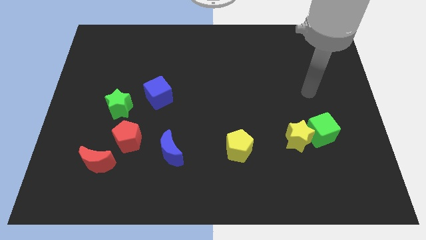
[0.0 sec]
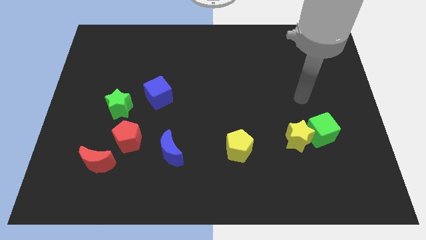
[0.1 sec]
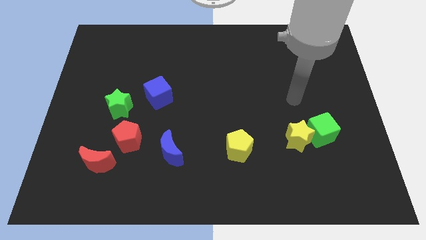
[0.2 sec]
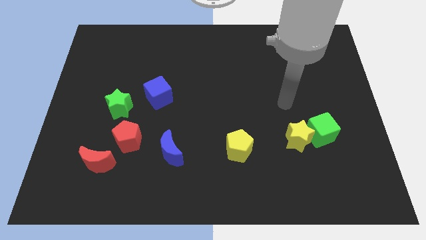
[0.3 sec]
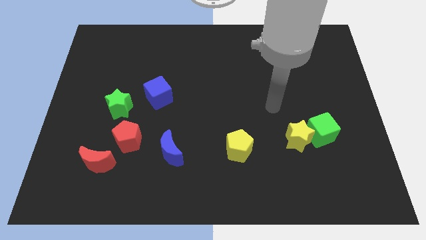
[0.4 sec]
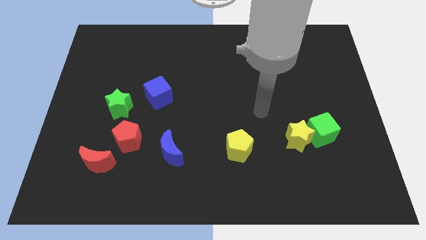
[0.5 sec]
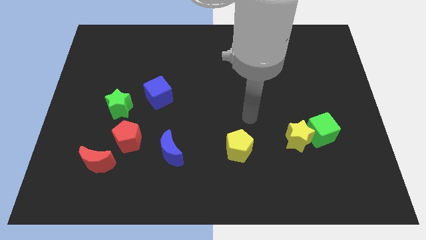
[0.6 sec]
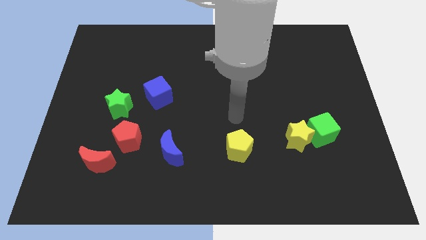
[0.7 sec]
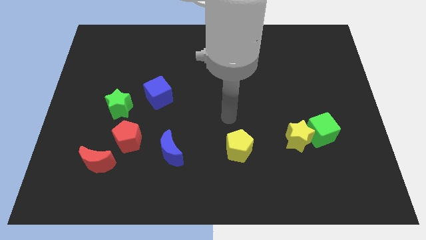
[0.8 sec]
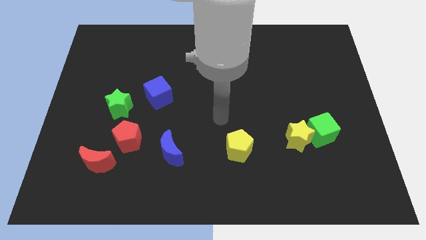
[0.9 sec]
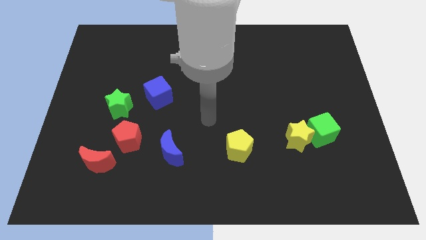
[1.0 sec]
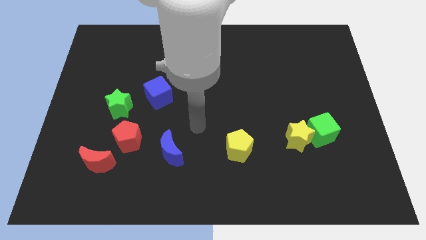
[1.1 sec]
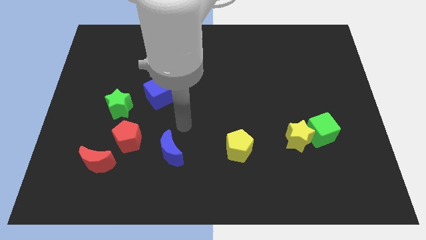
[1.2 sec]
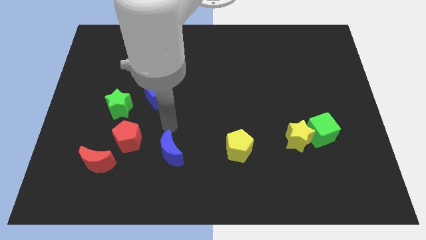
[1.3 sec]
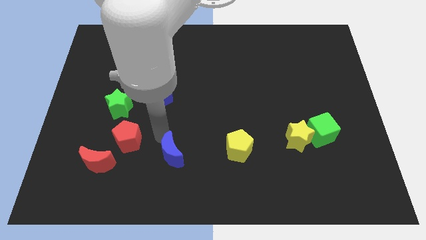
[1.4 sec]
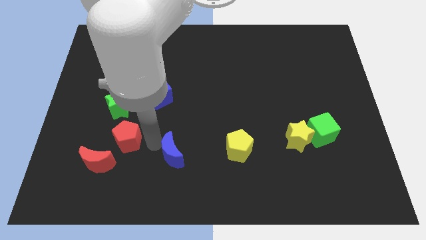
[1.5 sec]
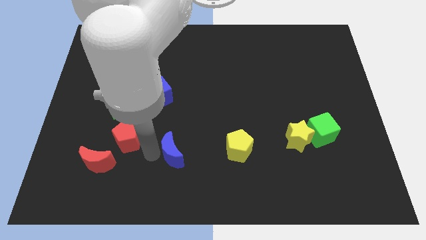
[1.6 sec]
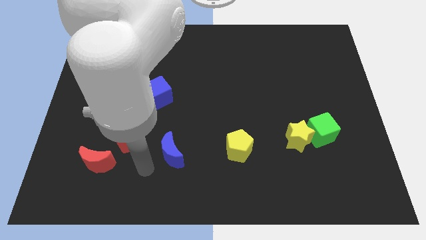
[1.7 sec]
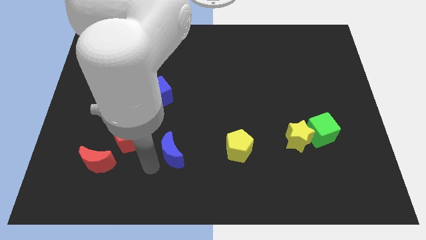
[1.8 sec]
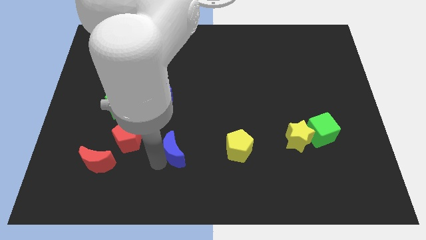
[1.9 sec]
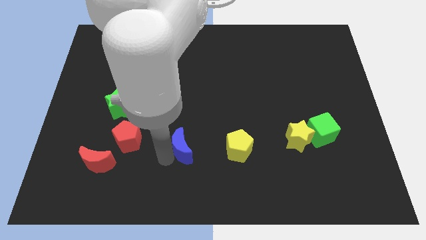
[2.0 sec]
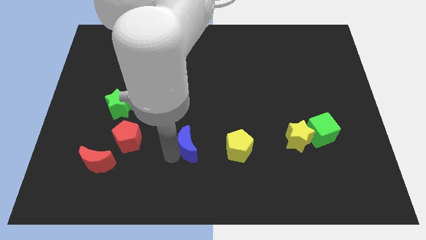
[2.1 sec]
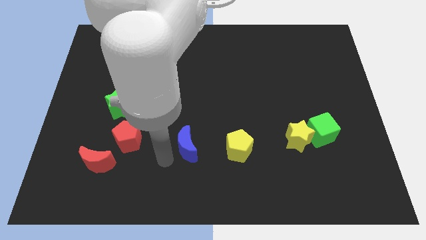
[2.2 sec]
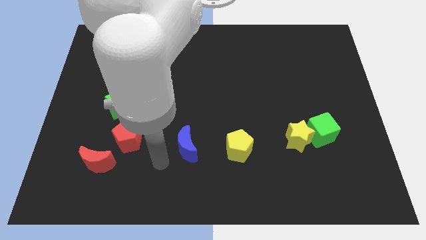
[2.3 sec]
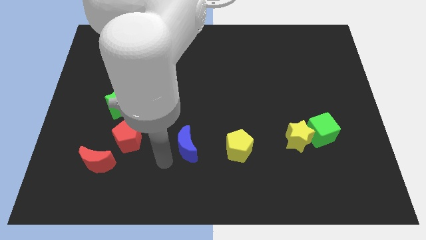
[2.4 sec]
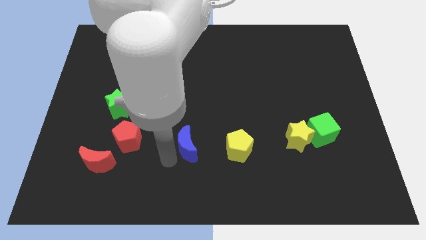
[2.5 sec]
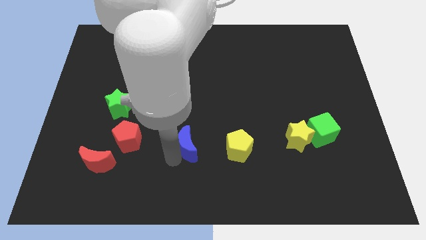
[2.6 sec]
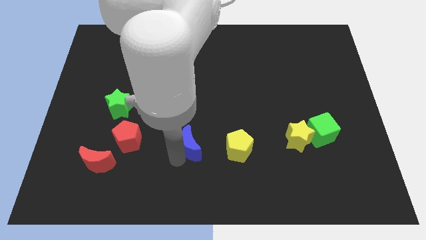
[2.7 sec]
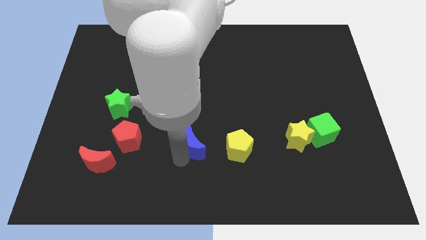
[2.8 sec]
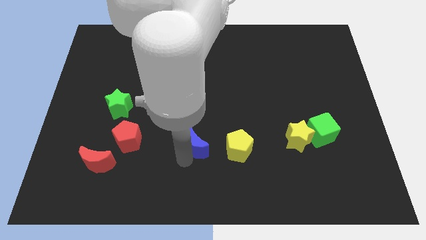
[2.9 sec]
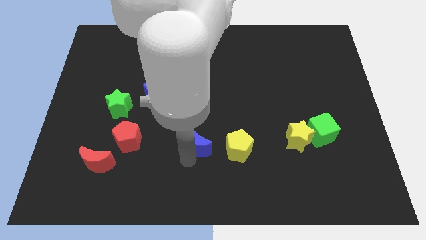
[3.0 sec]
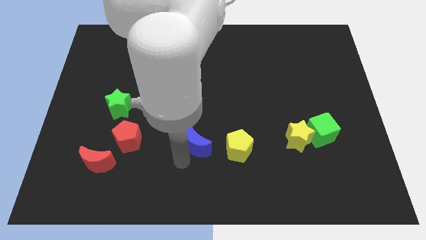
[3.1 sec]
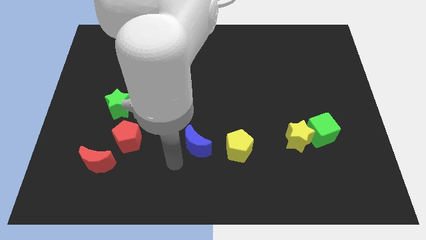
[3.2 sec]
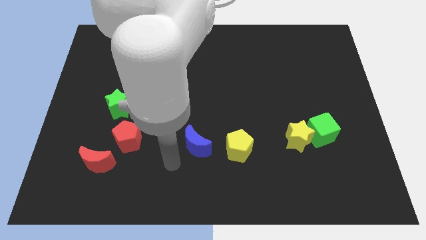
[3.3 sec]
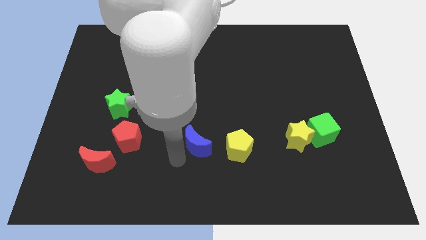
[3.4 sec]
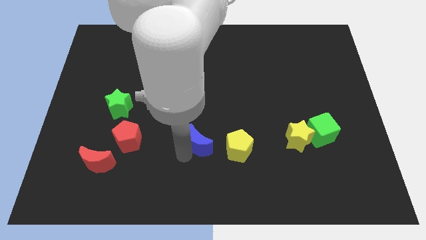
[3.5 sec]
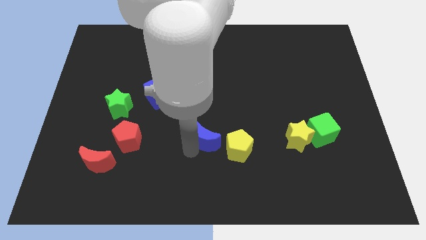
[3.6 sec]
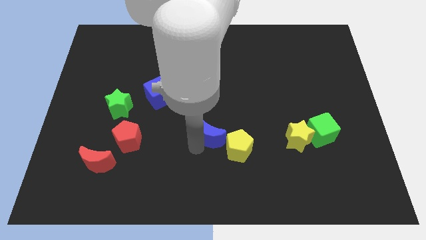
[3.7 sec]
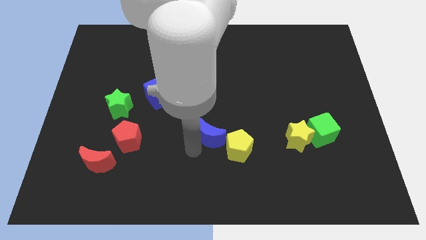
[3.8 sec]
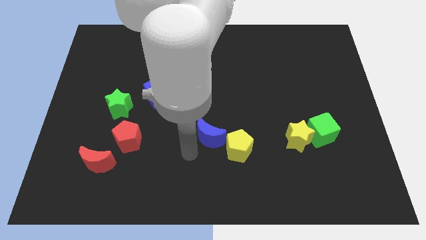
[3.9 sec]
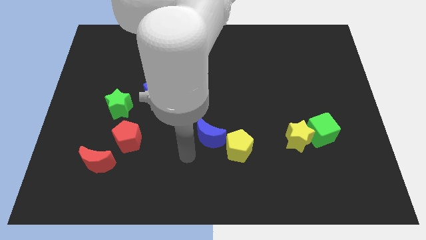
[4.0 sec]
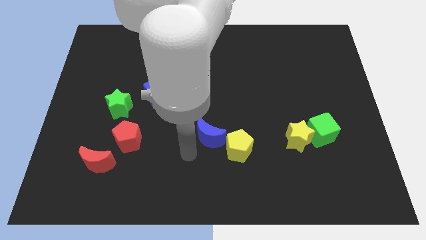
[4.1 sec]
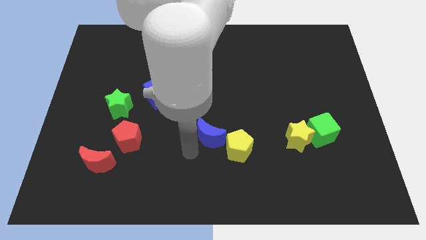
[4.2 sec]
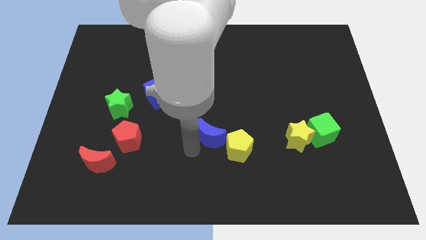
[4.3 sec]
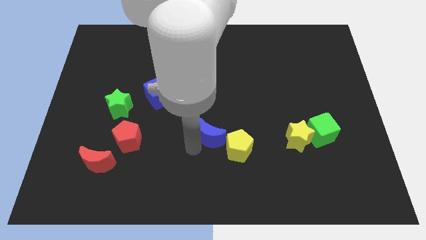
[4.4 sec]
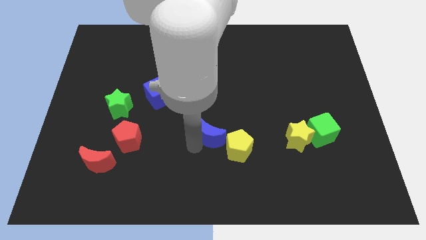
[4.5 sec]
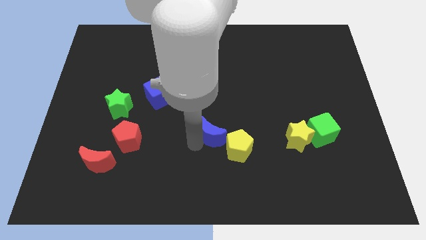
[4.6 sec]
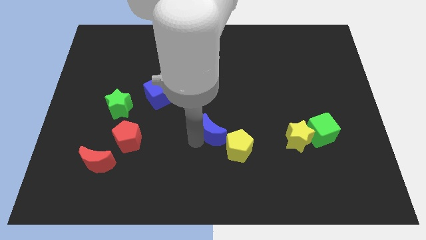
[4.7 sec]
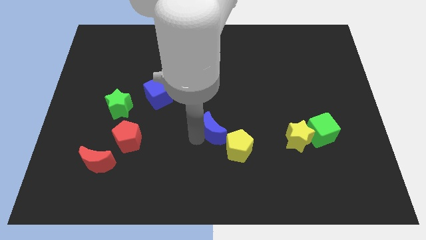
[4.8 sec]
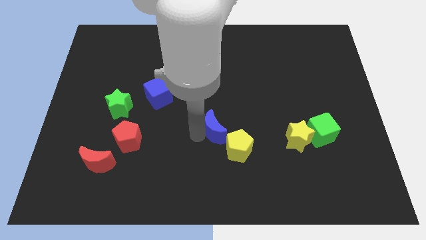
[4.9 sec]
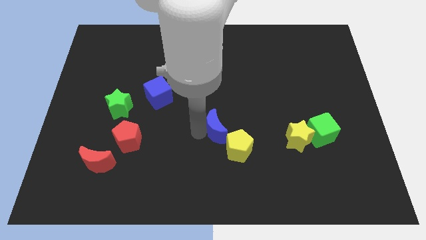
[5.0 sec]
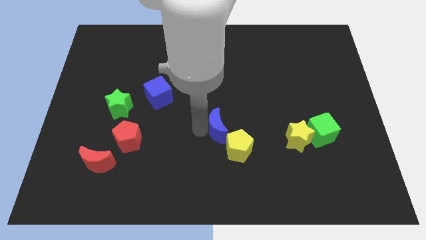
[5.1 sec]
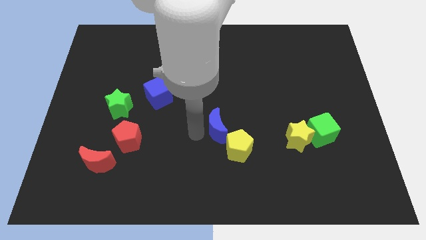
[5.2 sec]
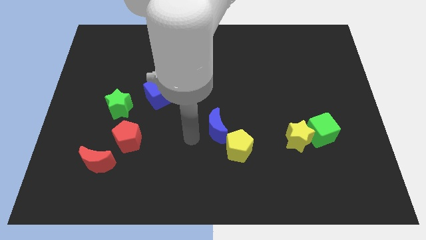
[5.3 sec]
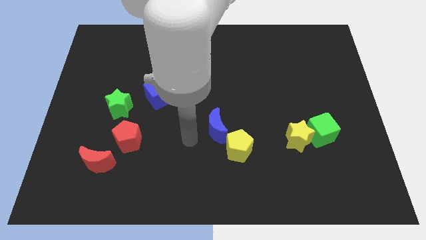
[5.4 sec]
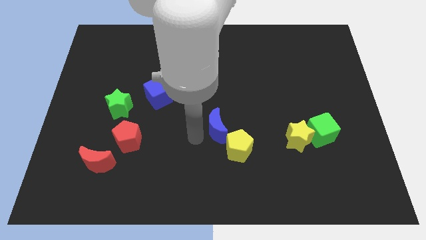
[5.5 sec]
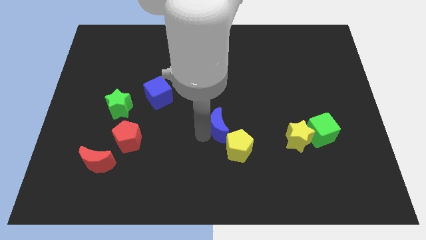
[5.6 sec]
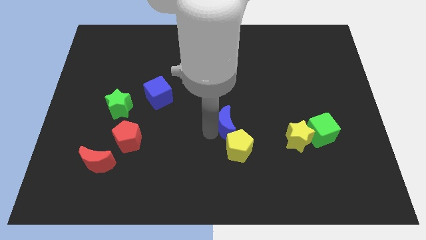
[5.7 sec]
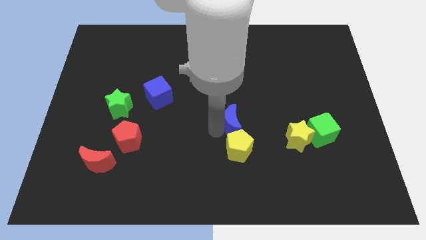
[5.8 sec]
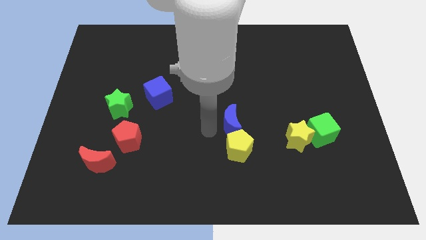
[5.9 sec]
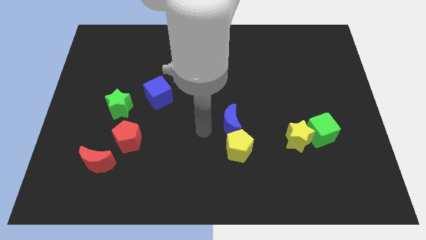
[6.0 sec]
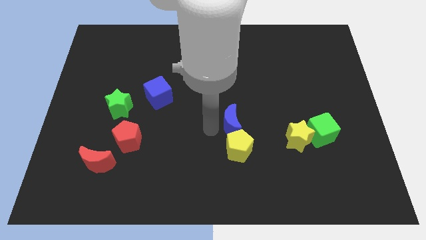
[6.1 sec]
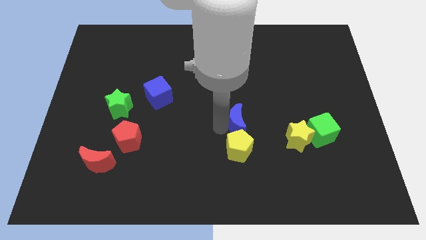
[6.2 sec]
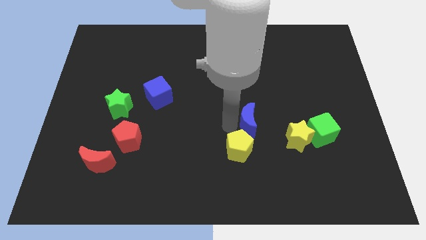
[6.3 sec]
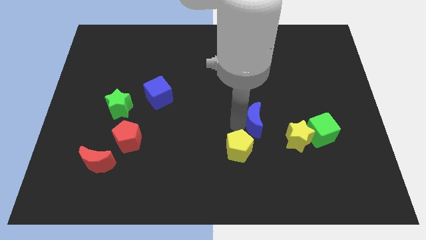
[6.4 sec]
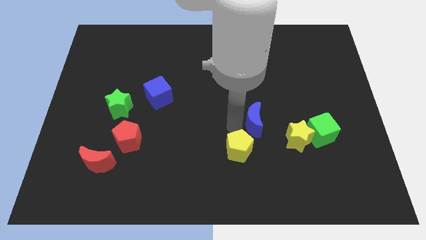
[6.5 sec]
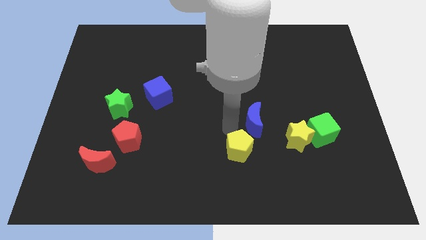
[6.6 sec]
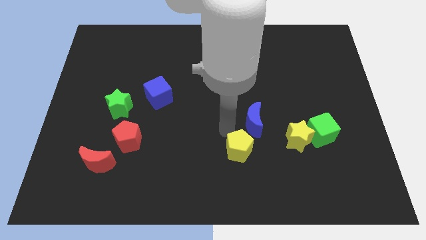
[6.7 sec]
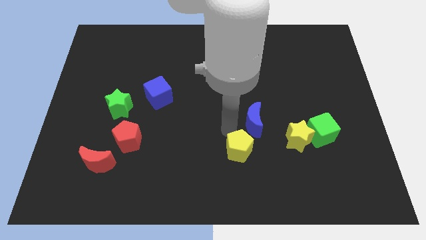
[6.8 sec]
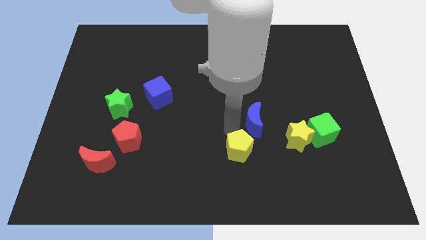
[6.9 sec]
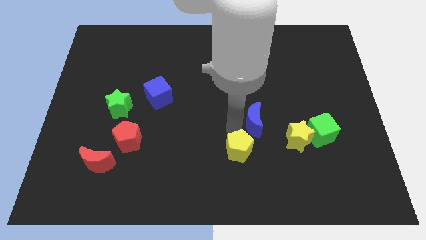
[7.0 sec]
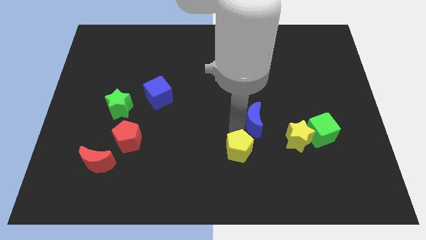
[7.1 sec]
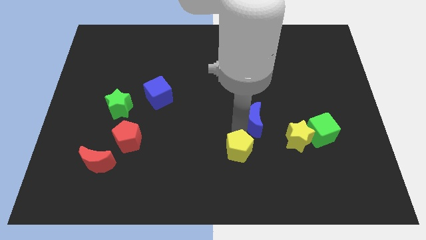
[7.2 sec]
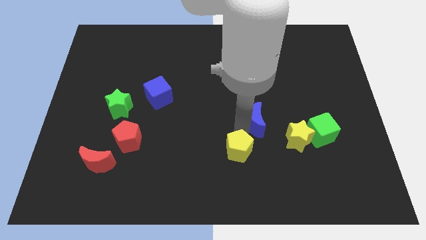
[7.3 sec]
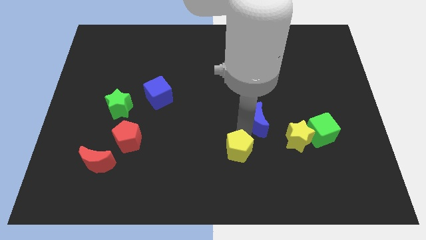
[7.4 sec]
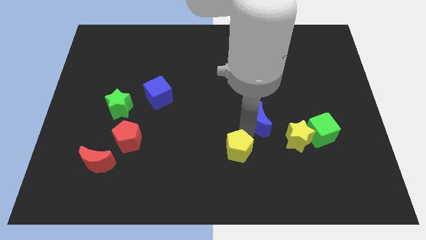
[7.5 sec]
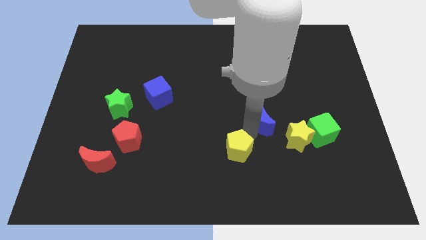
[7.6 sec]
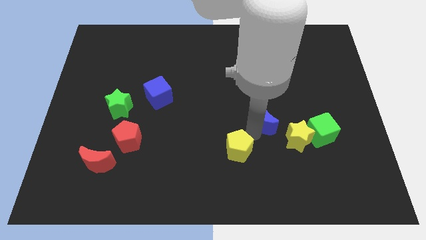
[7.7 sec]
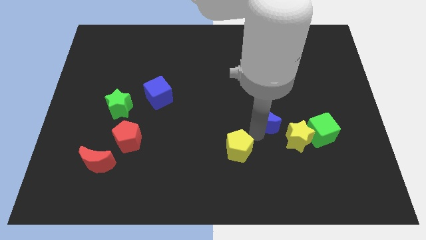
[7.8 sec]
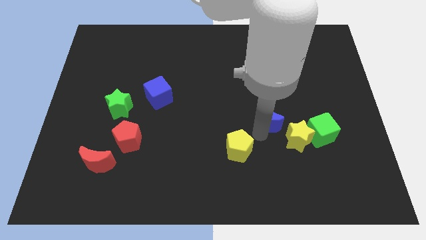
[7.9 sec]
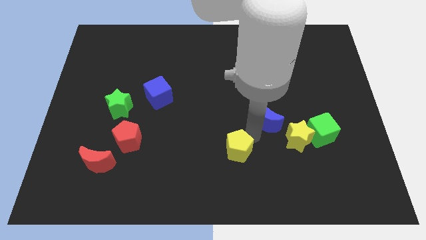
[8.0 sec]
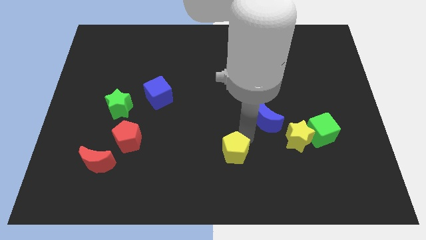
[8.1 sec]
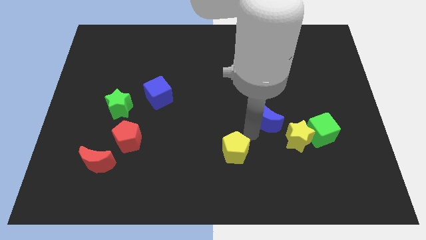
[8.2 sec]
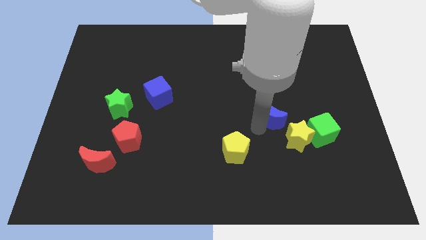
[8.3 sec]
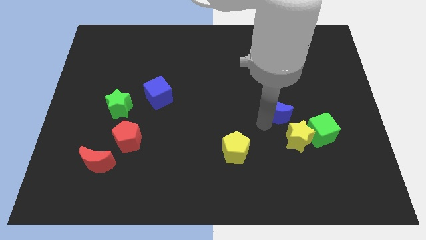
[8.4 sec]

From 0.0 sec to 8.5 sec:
push the blue moon to the top of the yellow star
